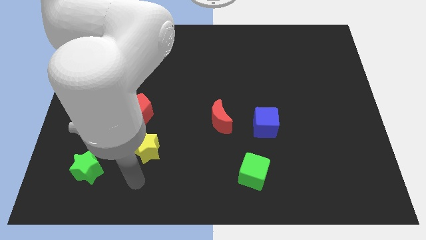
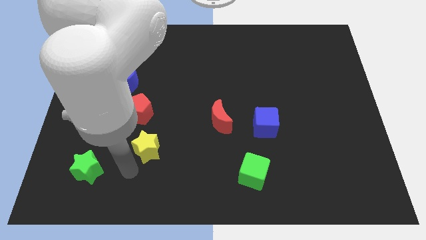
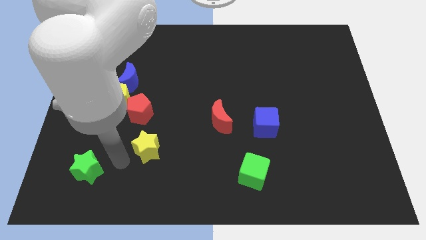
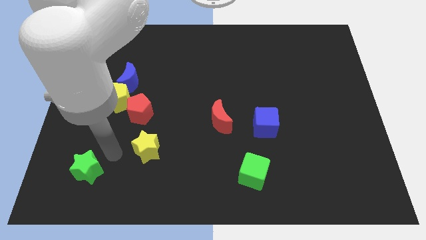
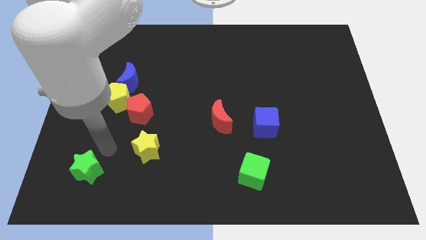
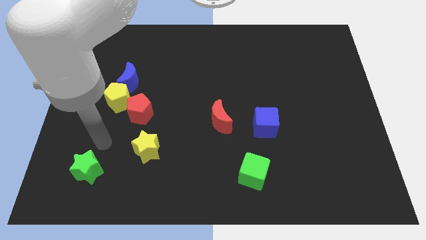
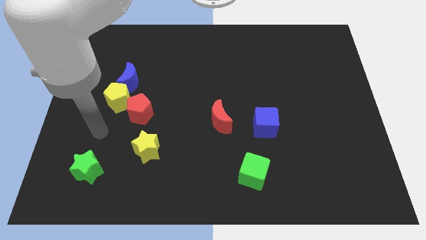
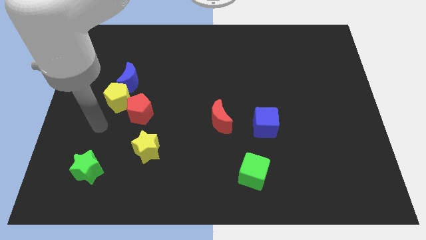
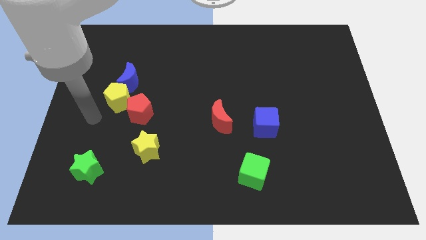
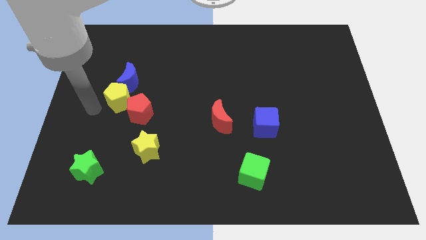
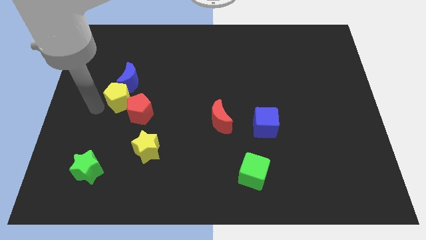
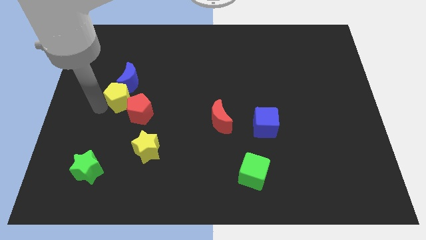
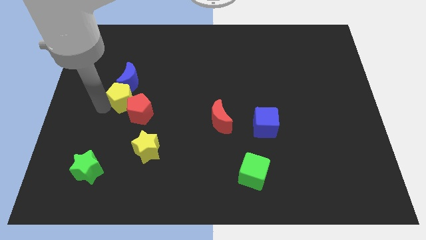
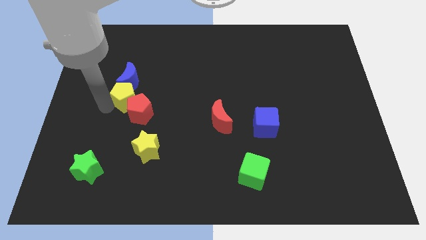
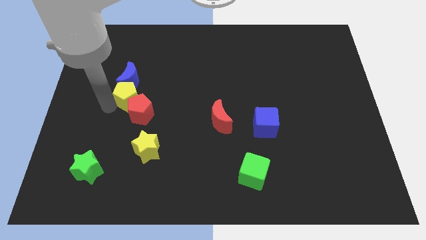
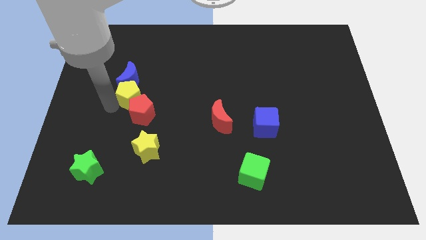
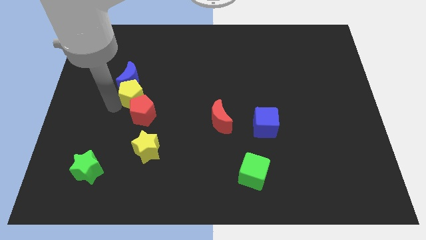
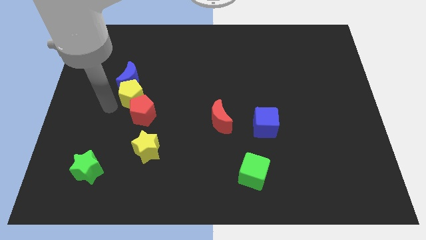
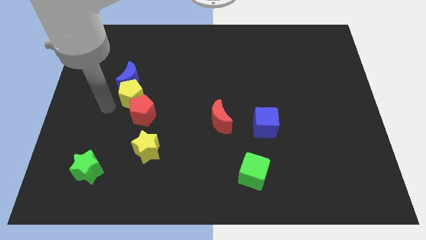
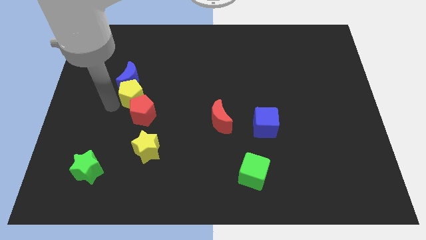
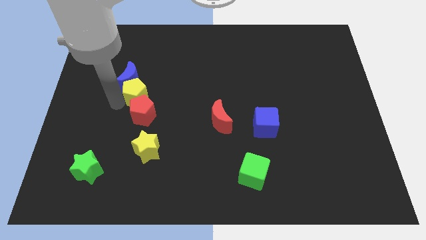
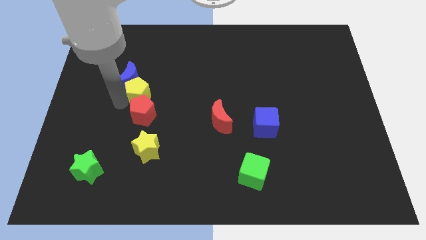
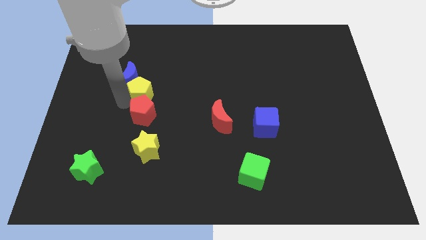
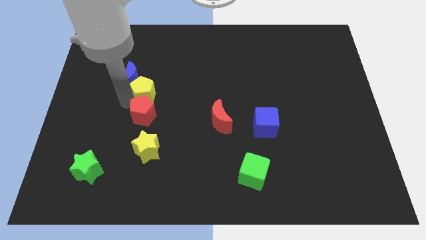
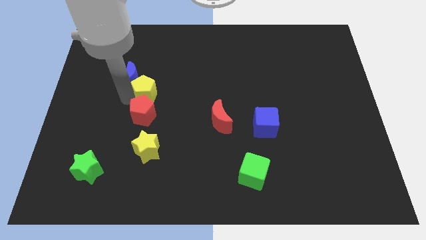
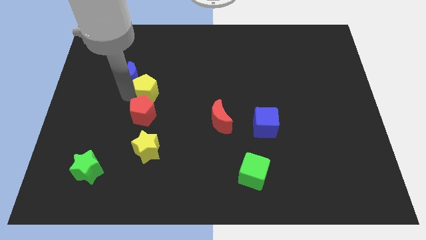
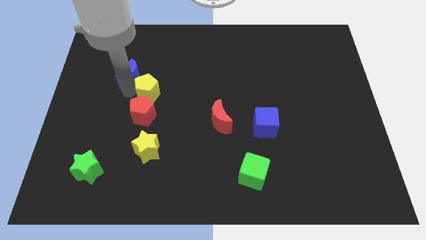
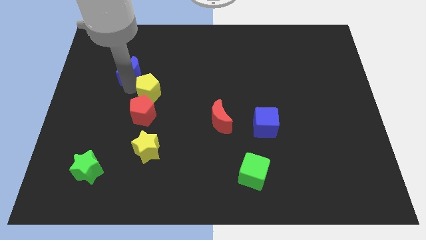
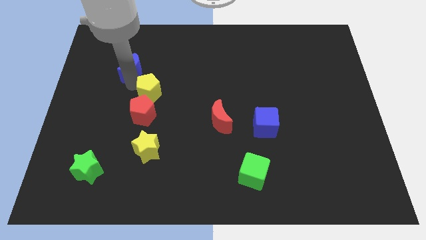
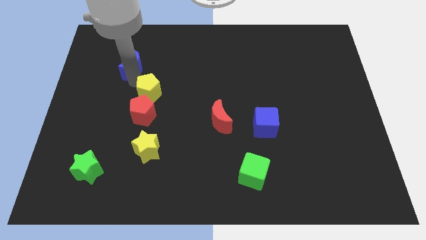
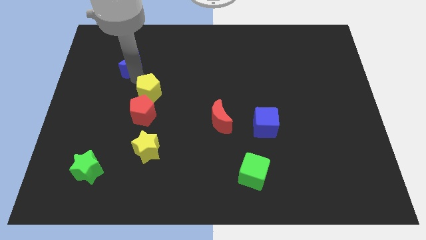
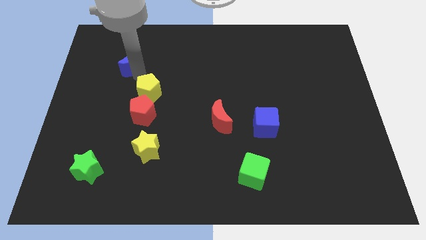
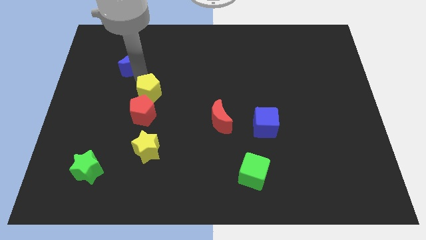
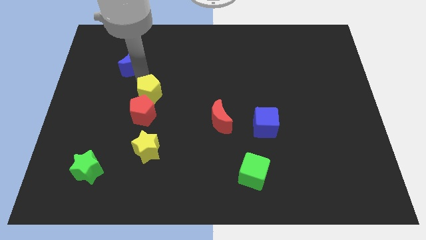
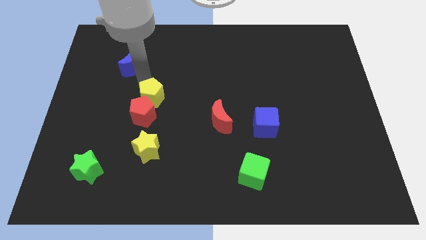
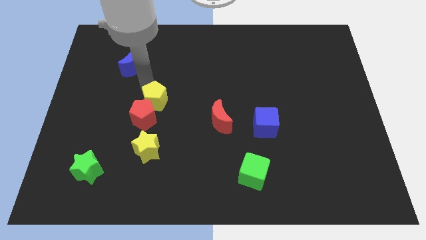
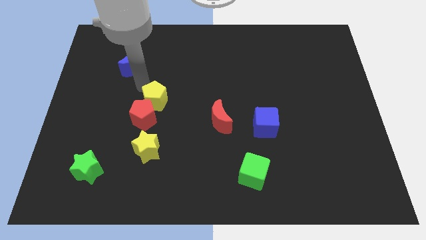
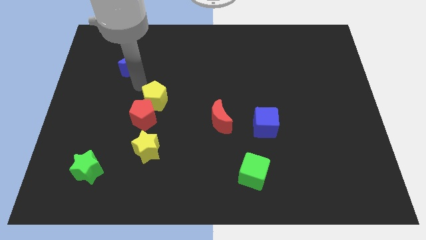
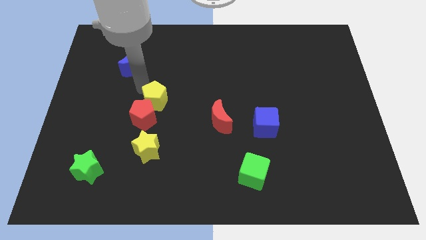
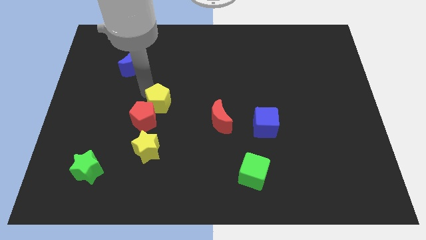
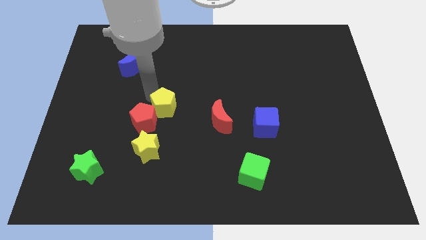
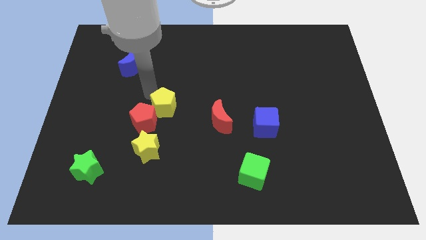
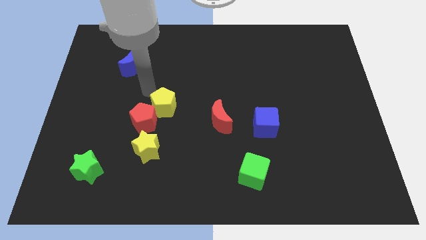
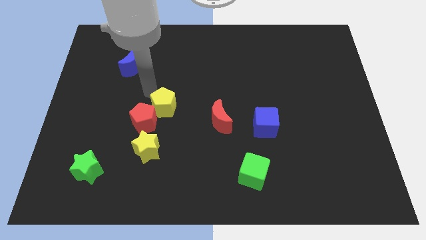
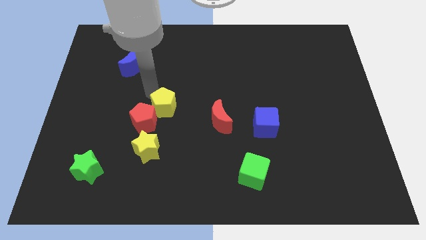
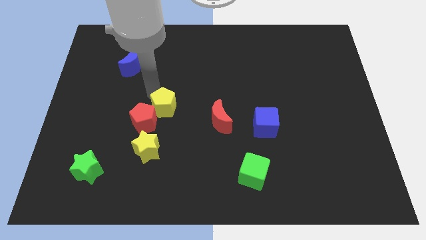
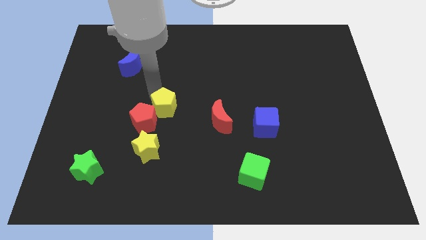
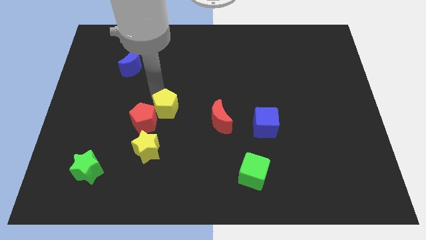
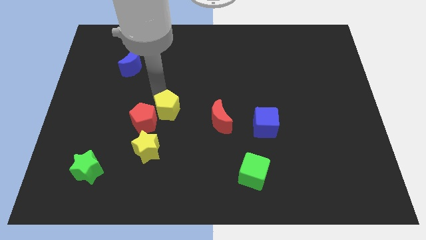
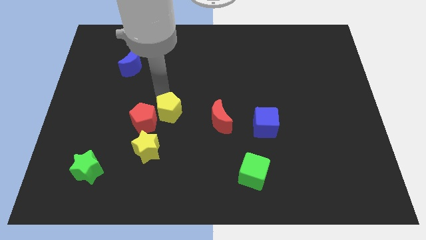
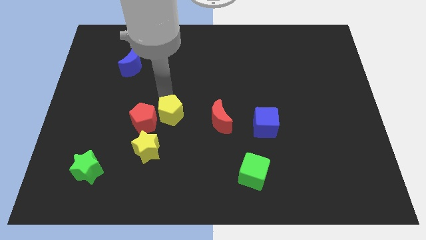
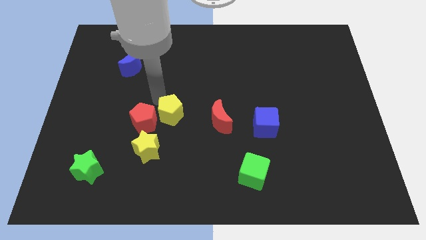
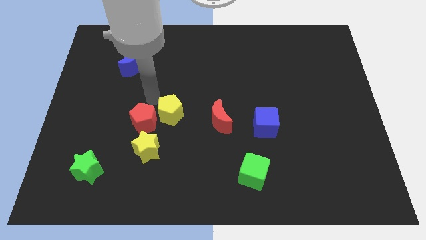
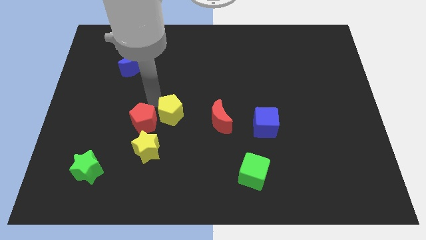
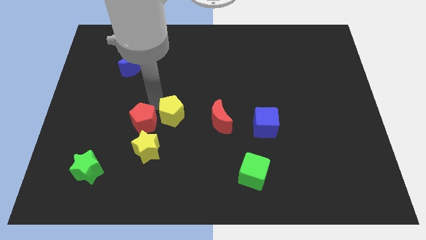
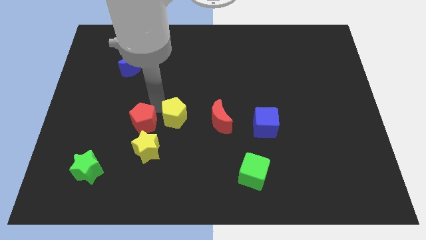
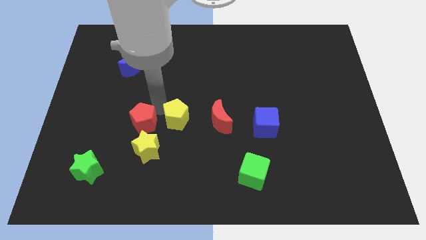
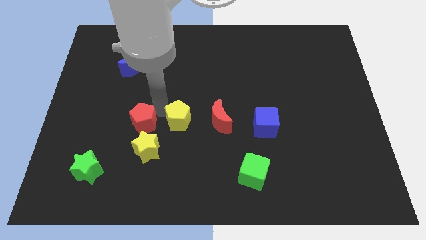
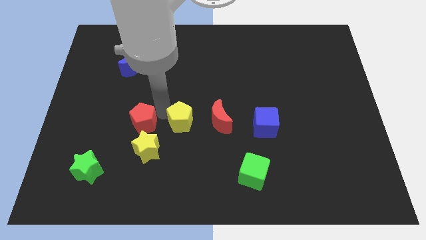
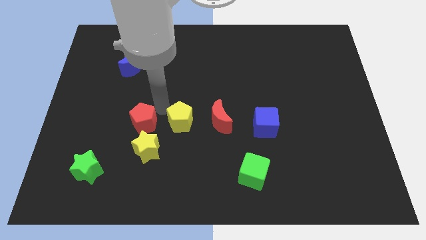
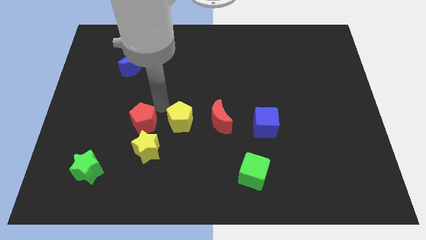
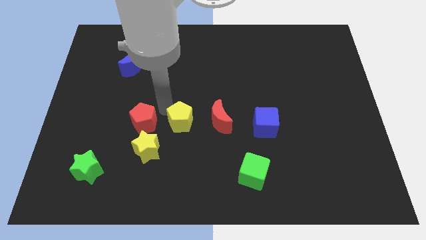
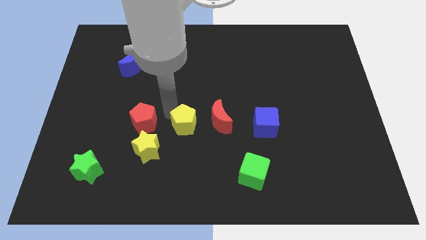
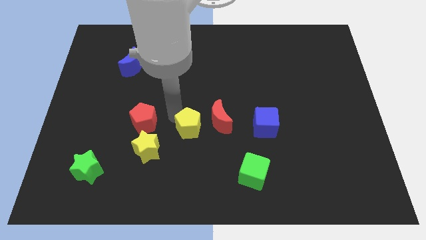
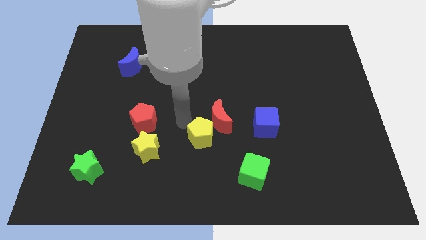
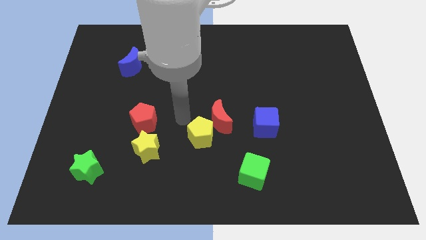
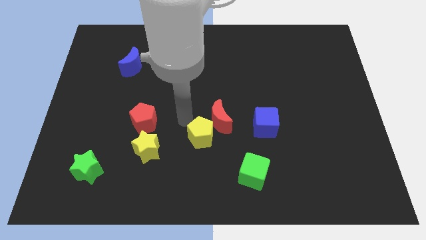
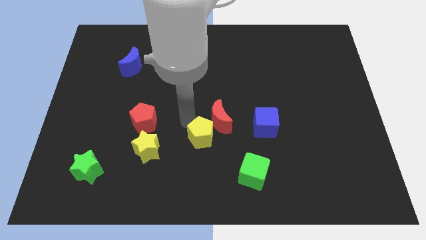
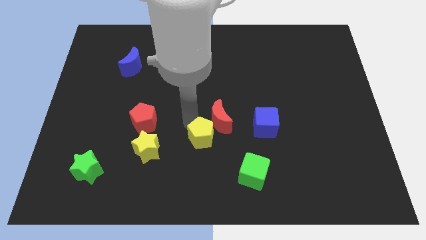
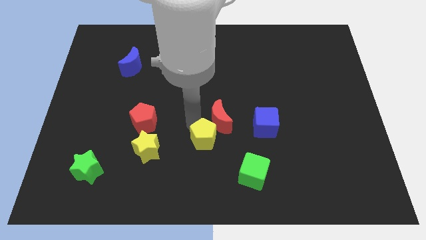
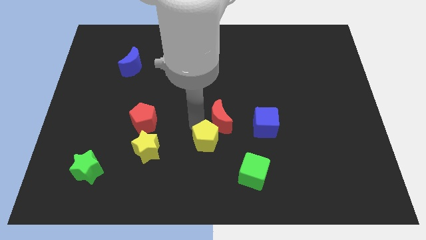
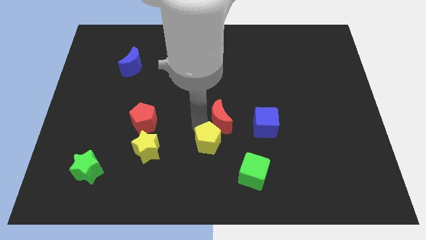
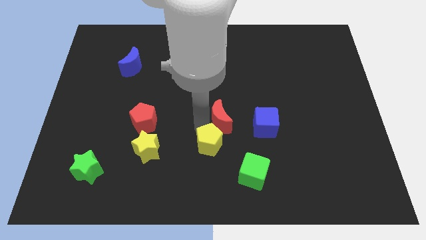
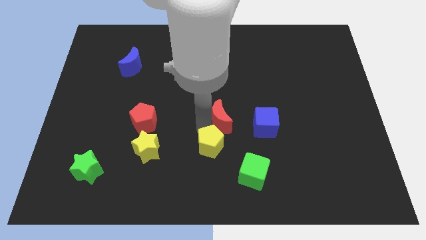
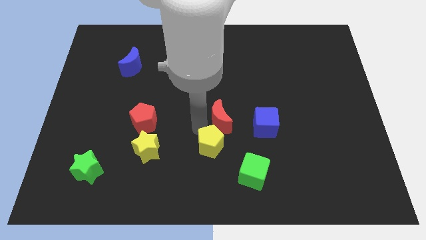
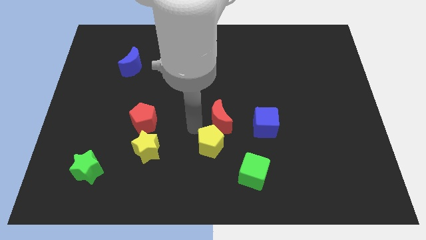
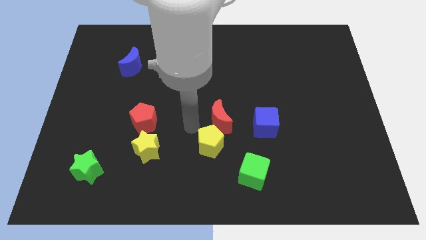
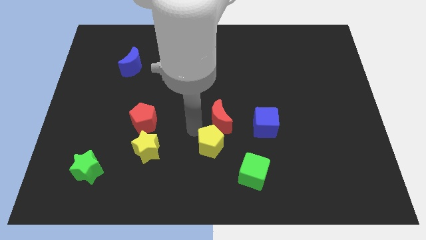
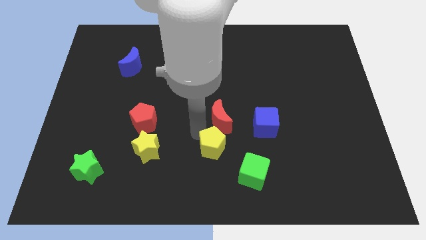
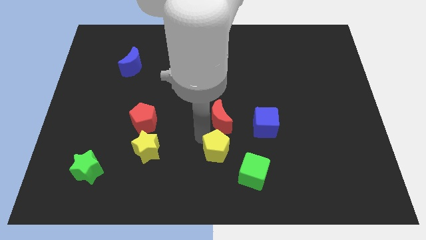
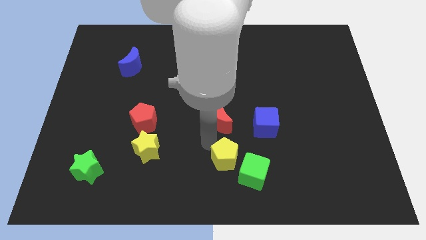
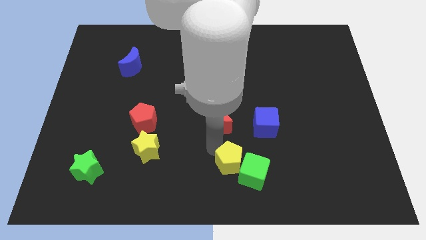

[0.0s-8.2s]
slide the yellow pentagon towards the green cube
